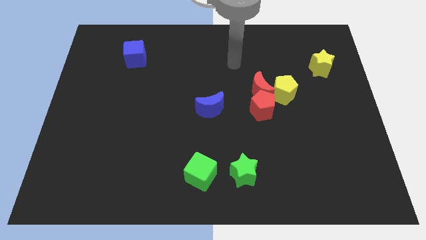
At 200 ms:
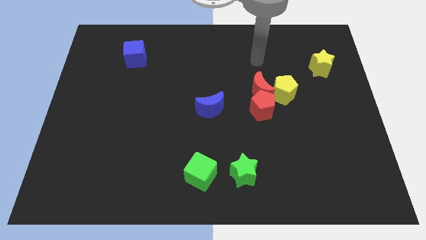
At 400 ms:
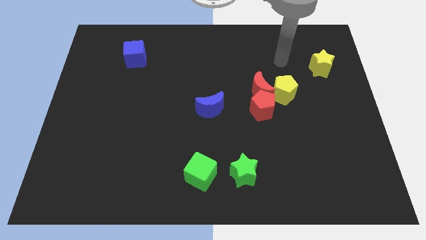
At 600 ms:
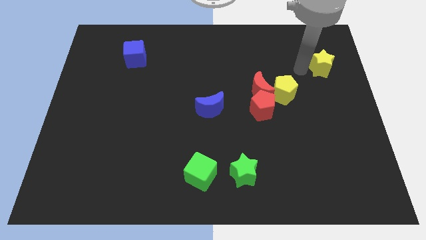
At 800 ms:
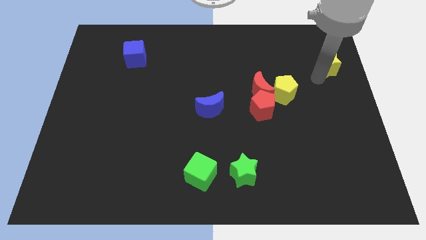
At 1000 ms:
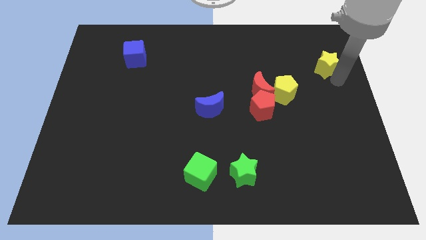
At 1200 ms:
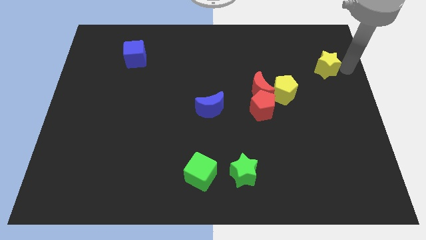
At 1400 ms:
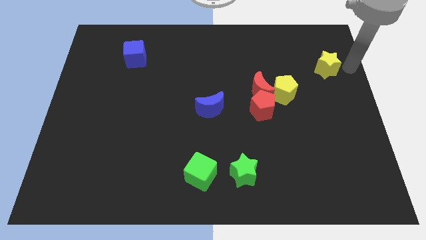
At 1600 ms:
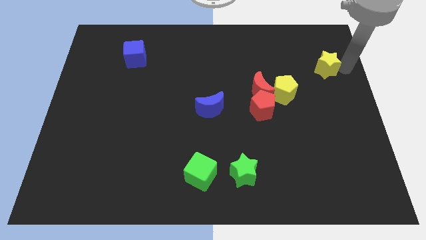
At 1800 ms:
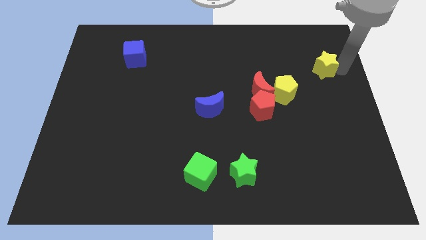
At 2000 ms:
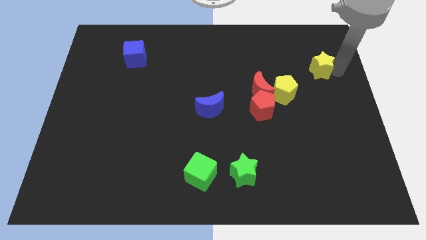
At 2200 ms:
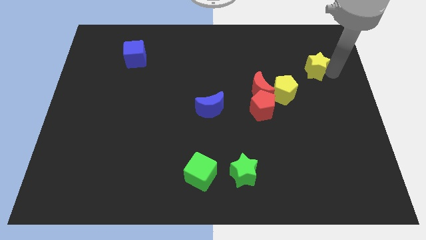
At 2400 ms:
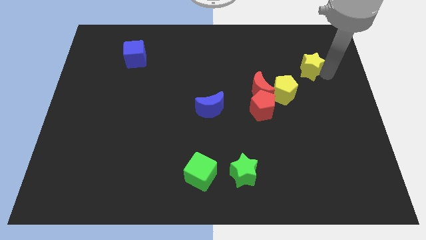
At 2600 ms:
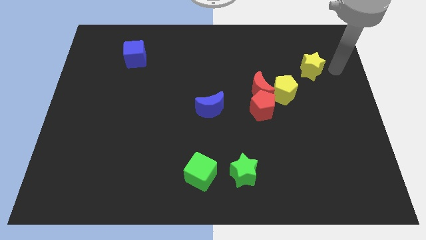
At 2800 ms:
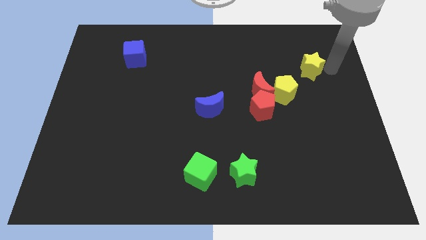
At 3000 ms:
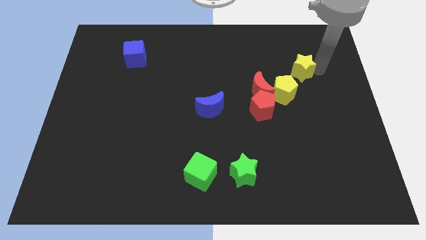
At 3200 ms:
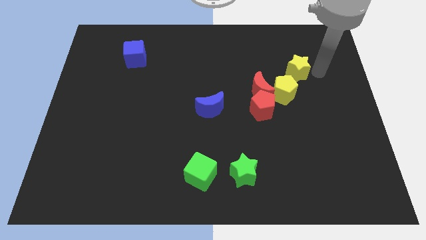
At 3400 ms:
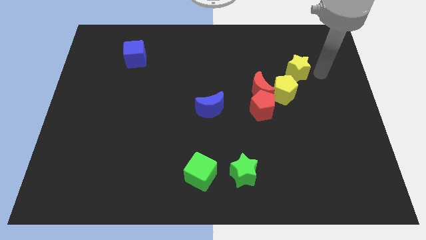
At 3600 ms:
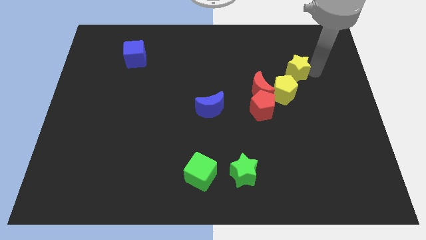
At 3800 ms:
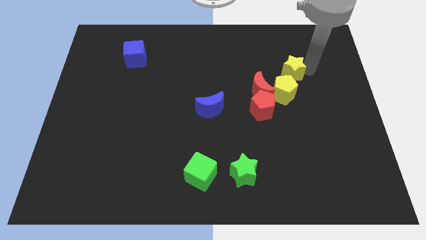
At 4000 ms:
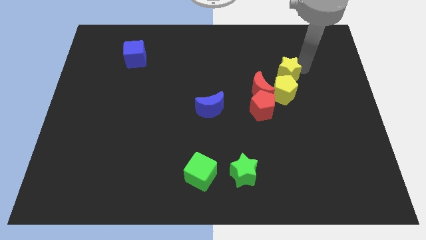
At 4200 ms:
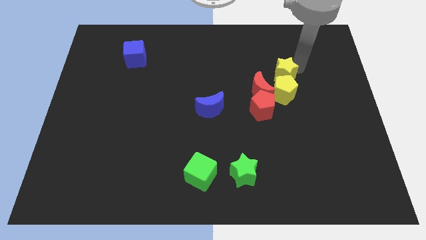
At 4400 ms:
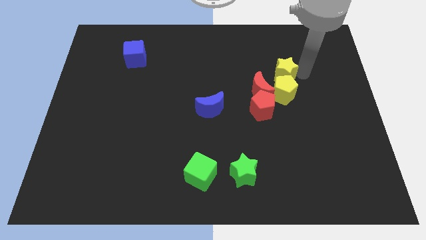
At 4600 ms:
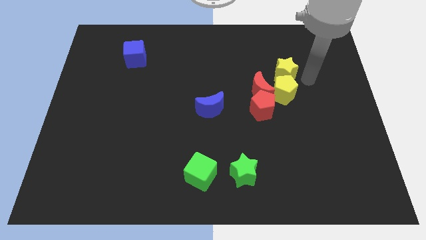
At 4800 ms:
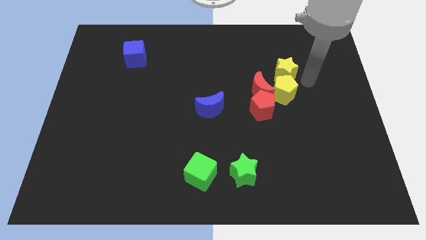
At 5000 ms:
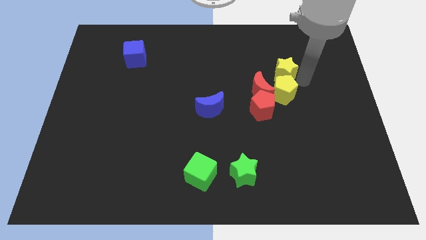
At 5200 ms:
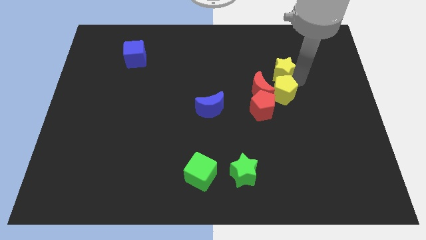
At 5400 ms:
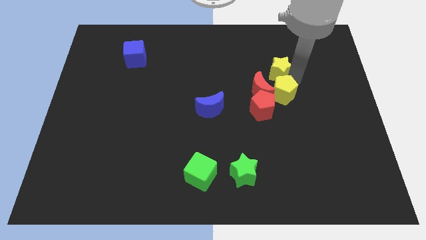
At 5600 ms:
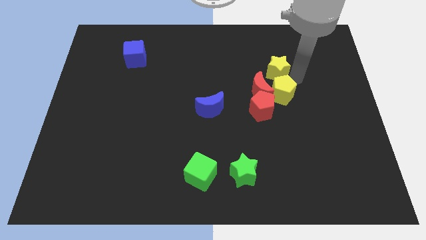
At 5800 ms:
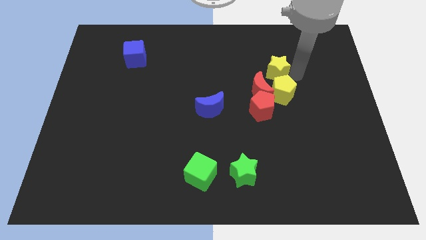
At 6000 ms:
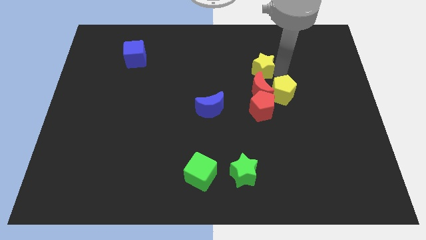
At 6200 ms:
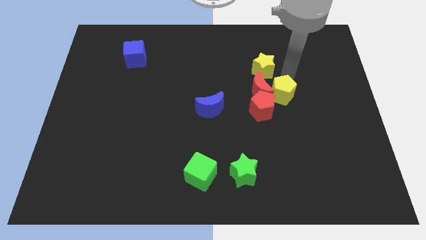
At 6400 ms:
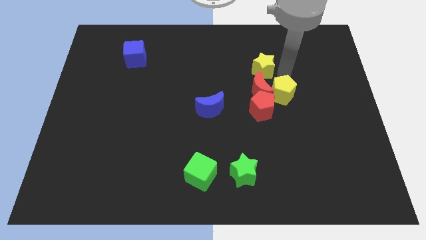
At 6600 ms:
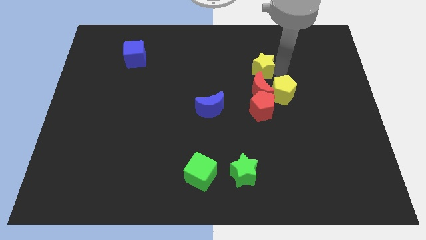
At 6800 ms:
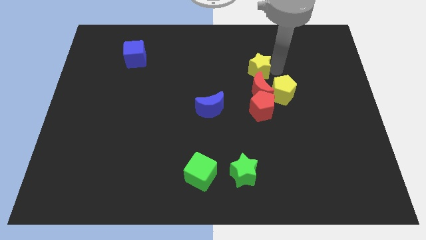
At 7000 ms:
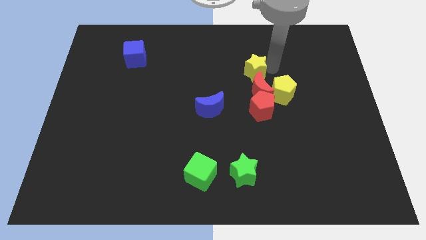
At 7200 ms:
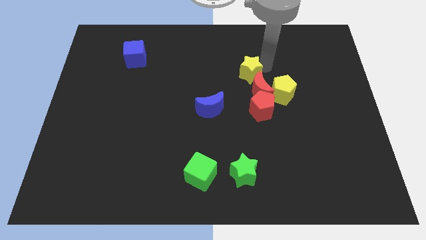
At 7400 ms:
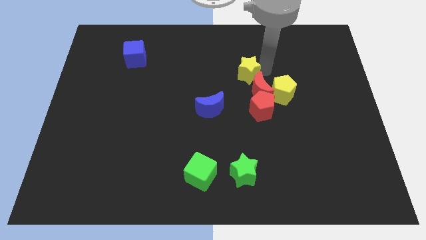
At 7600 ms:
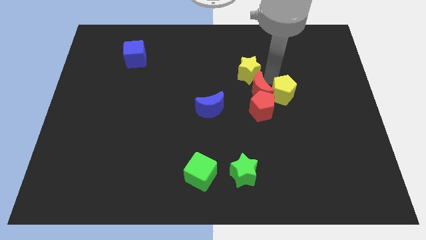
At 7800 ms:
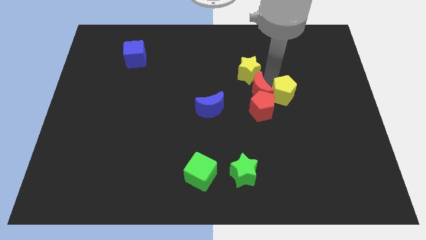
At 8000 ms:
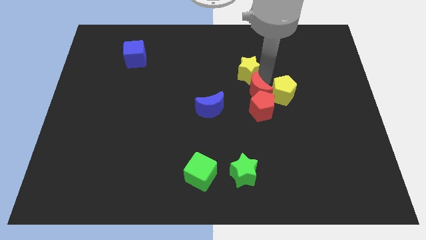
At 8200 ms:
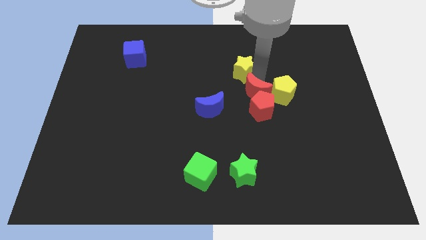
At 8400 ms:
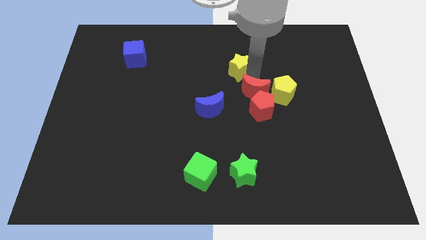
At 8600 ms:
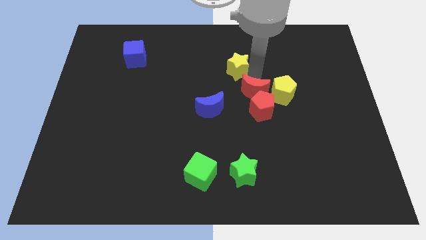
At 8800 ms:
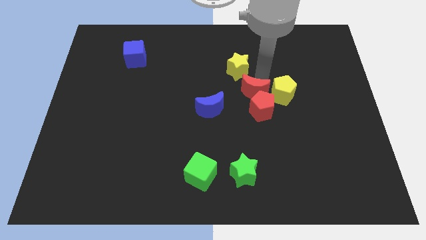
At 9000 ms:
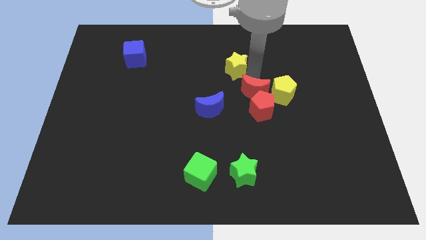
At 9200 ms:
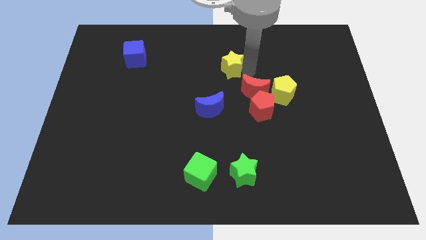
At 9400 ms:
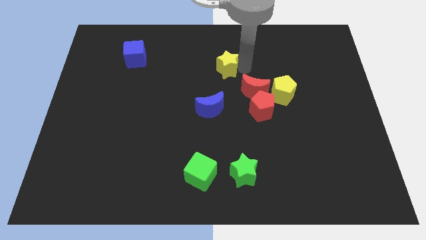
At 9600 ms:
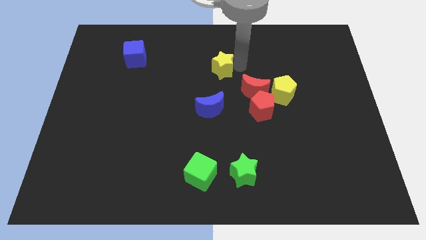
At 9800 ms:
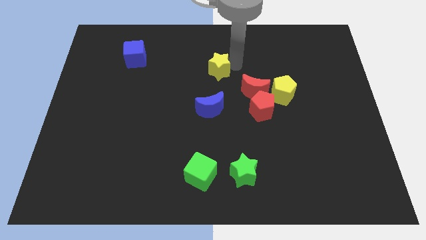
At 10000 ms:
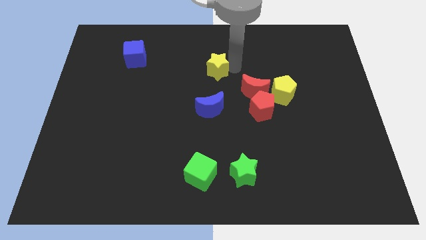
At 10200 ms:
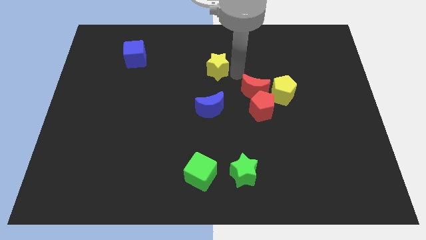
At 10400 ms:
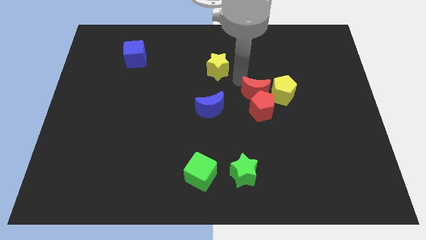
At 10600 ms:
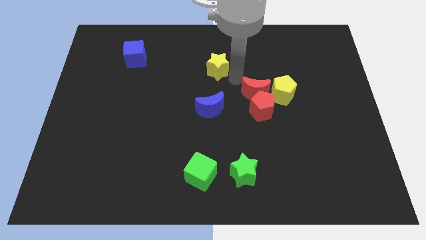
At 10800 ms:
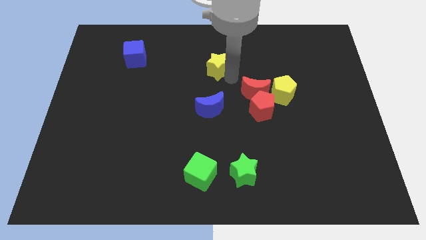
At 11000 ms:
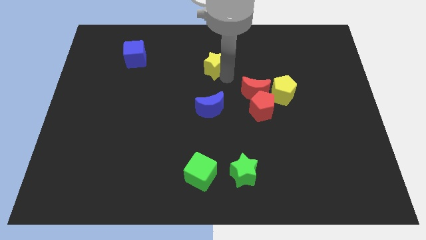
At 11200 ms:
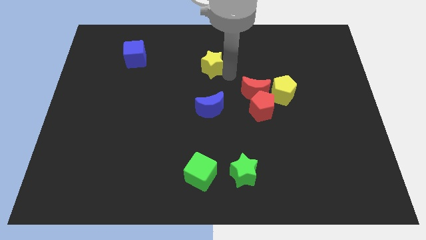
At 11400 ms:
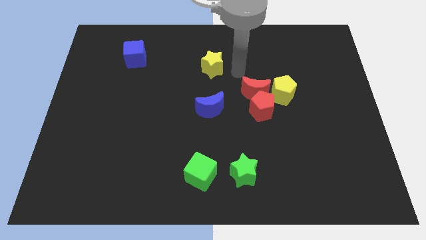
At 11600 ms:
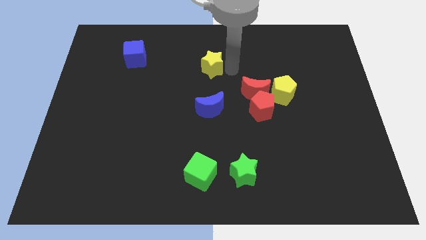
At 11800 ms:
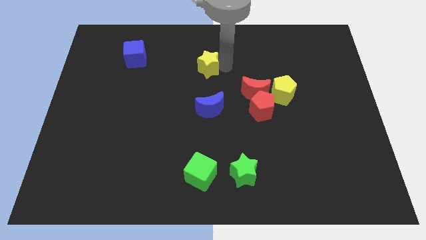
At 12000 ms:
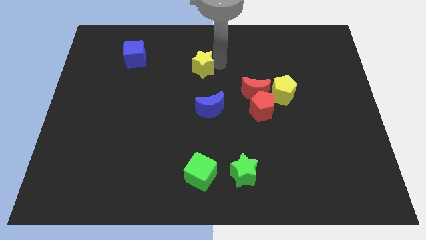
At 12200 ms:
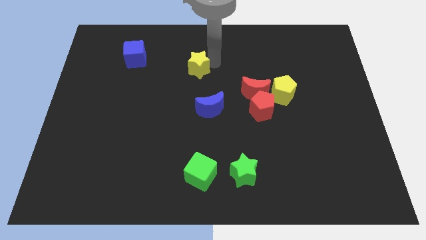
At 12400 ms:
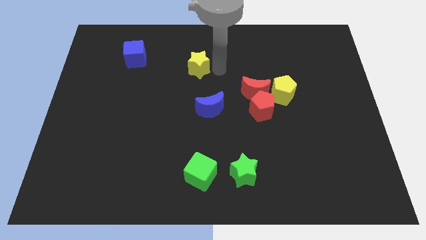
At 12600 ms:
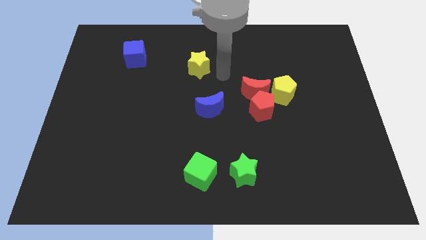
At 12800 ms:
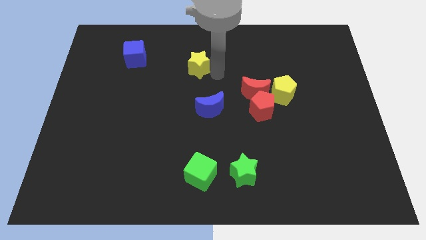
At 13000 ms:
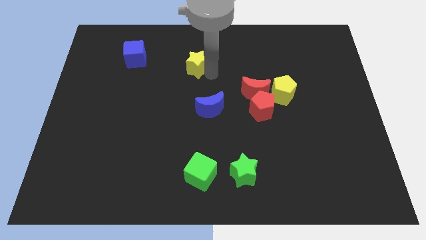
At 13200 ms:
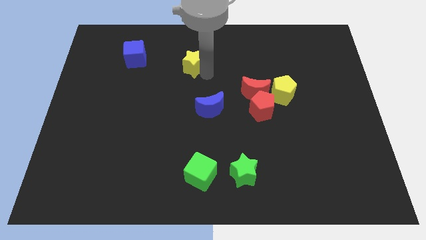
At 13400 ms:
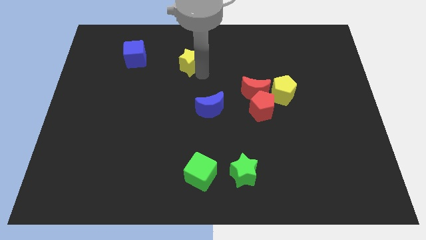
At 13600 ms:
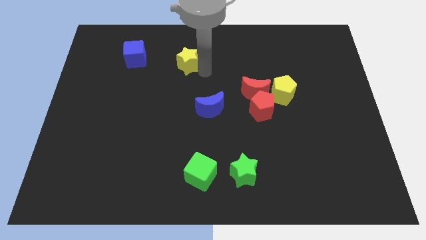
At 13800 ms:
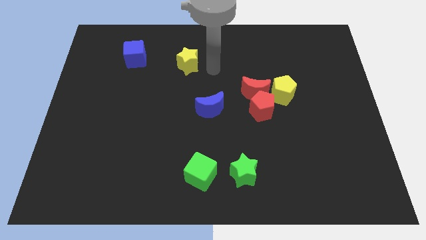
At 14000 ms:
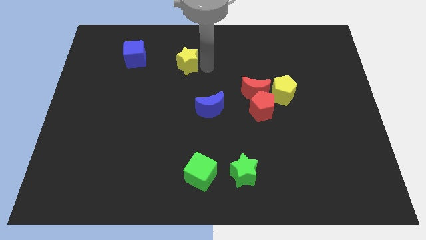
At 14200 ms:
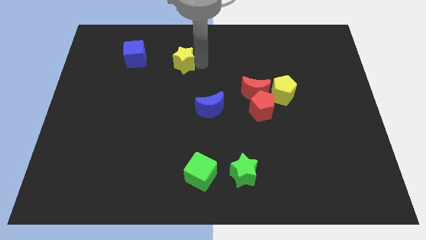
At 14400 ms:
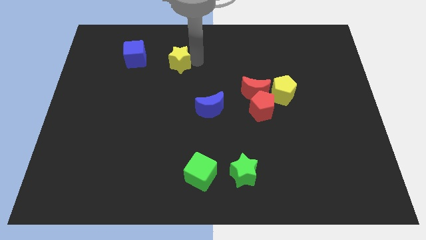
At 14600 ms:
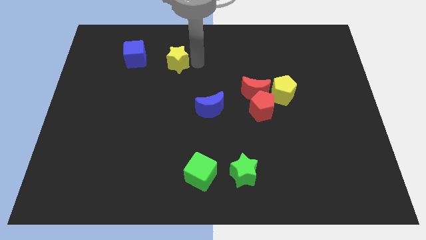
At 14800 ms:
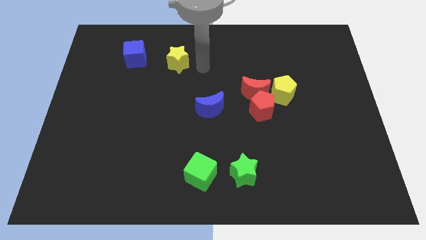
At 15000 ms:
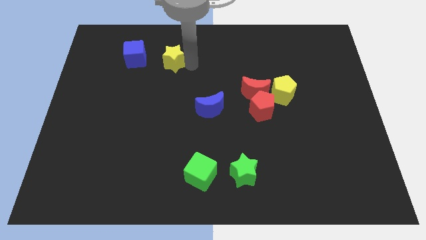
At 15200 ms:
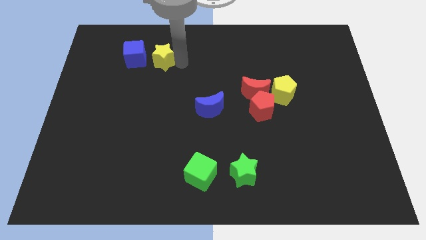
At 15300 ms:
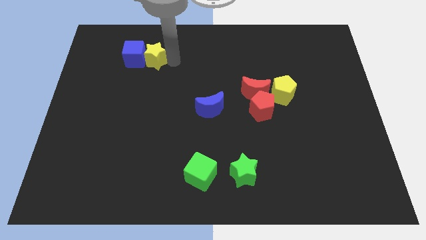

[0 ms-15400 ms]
put the yellow star towards the blue cube
